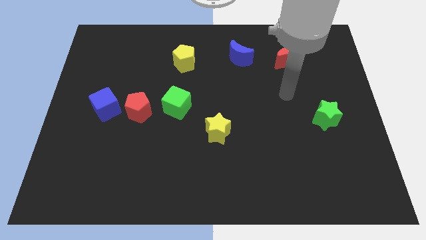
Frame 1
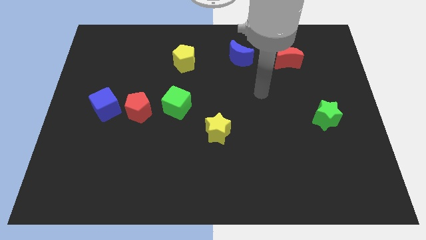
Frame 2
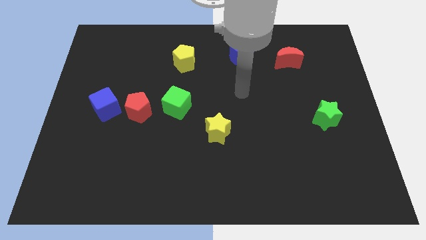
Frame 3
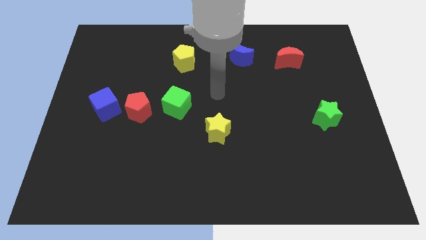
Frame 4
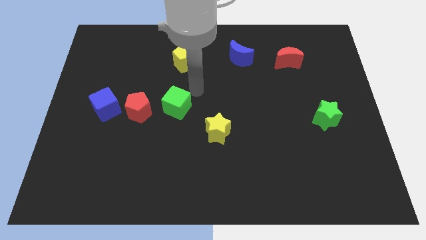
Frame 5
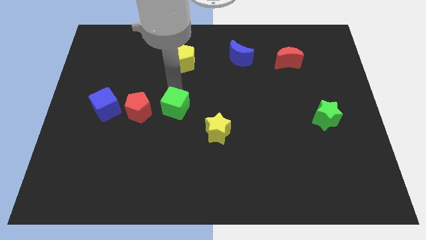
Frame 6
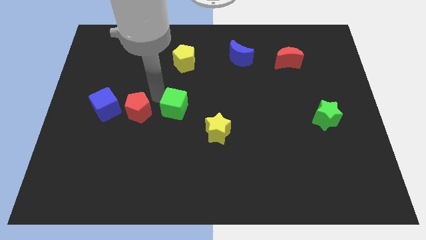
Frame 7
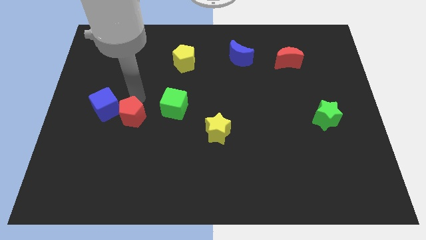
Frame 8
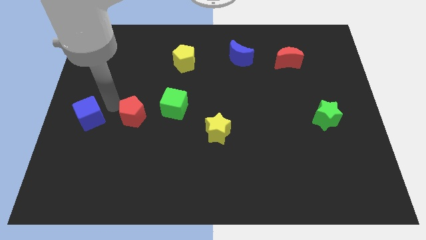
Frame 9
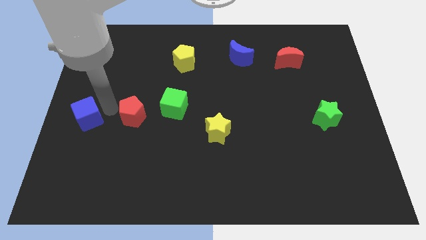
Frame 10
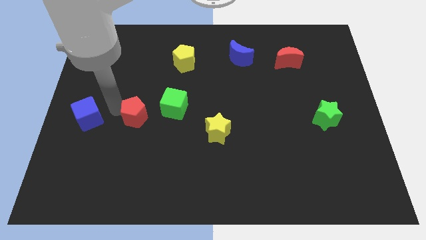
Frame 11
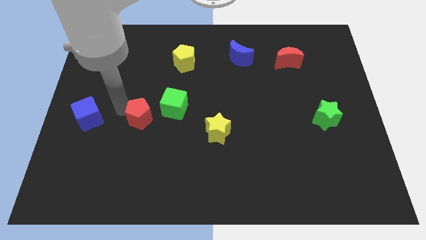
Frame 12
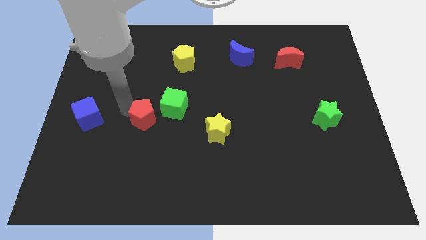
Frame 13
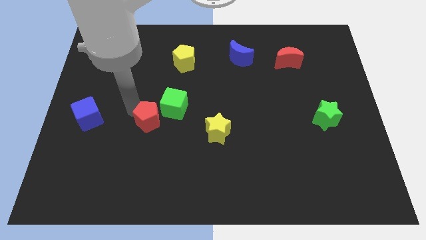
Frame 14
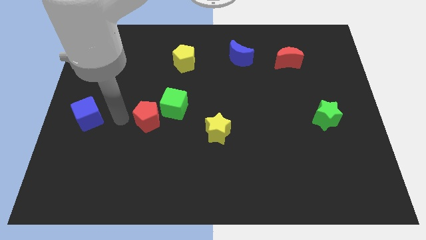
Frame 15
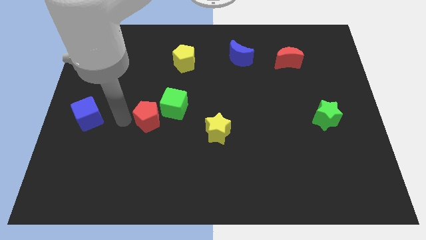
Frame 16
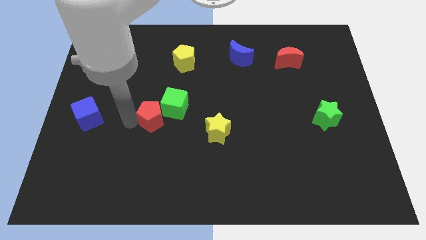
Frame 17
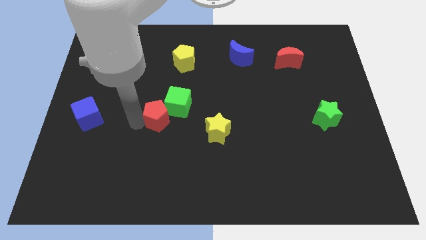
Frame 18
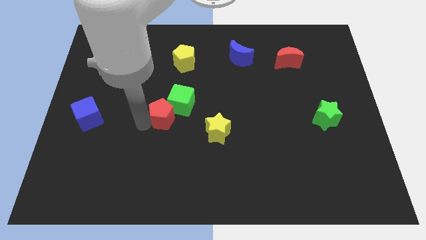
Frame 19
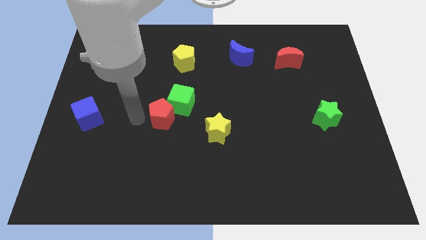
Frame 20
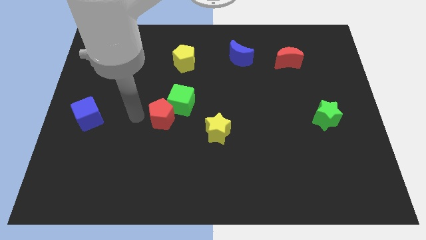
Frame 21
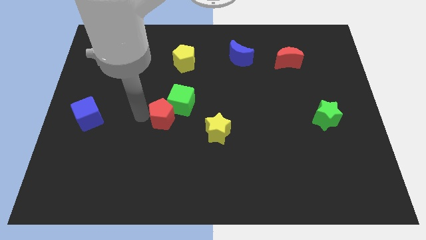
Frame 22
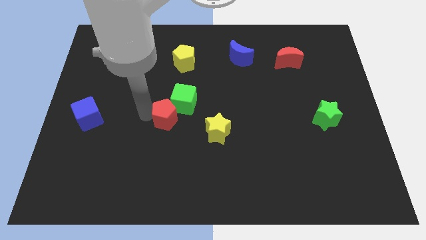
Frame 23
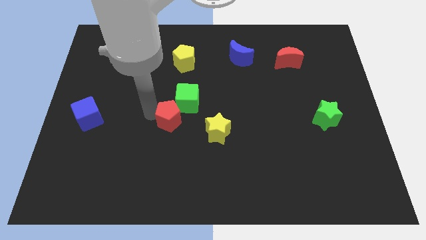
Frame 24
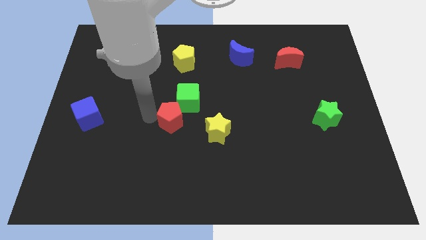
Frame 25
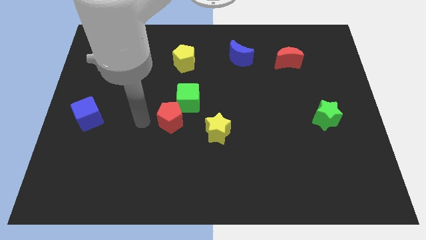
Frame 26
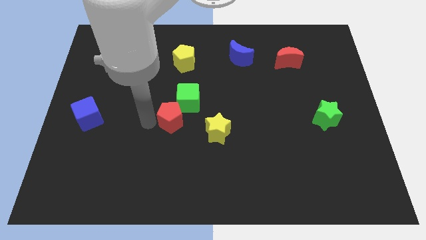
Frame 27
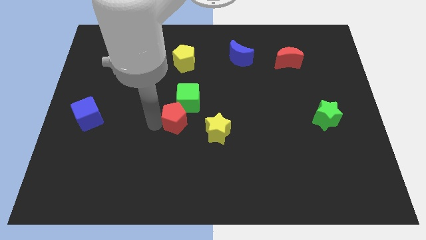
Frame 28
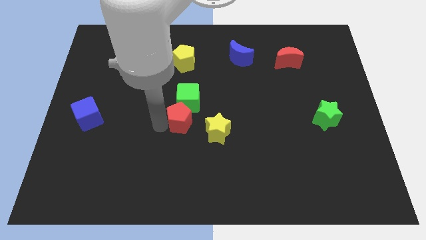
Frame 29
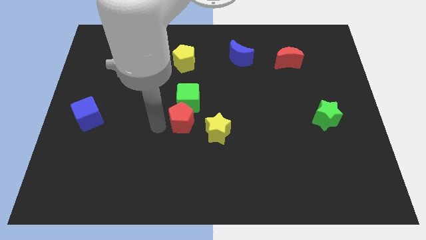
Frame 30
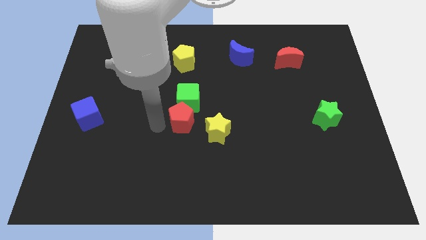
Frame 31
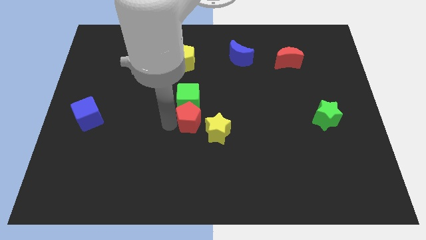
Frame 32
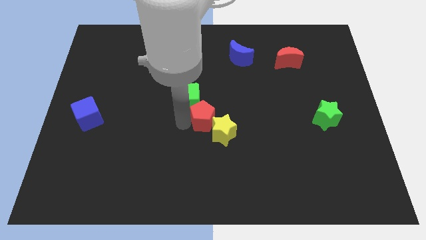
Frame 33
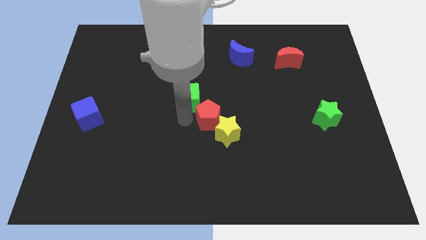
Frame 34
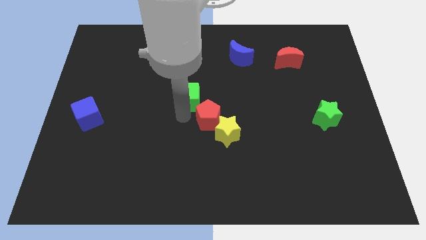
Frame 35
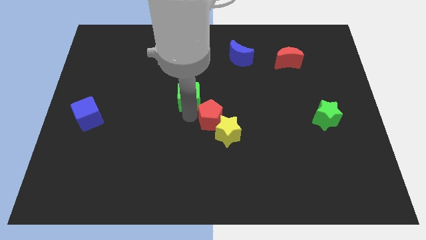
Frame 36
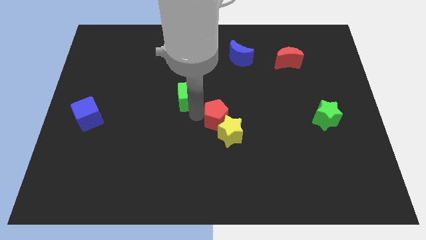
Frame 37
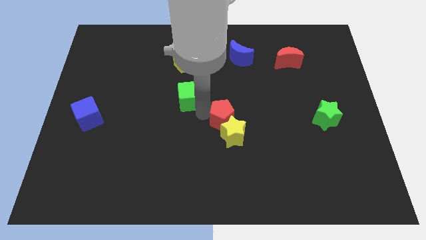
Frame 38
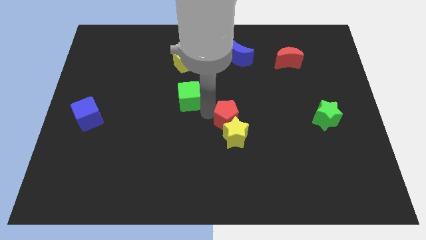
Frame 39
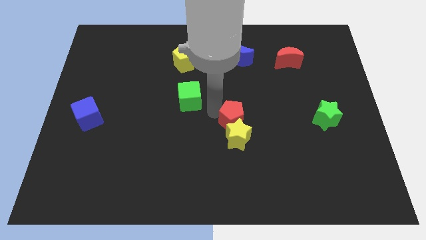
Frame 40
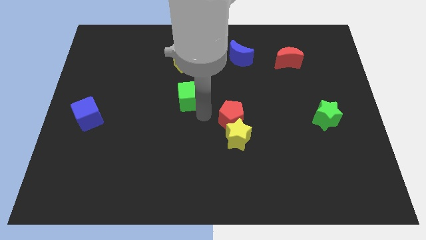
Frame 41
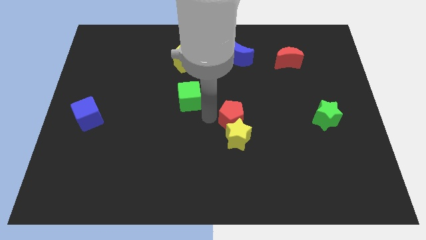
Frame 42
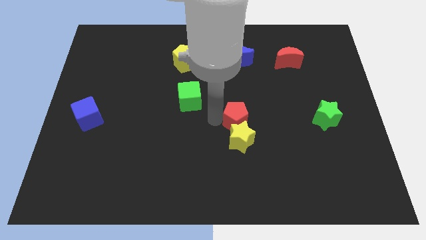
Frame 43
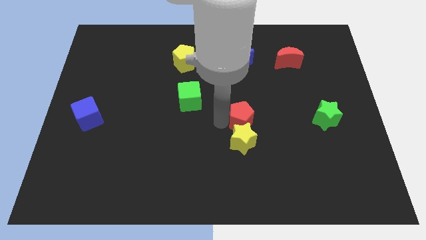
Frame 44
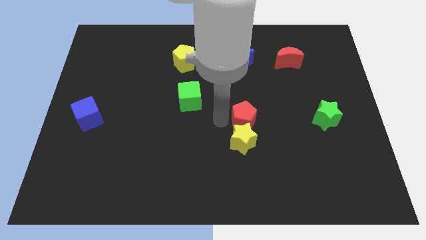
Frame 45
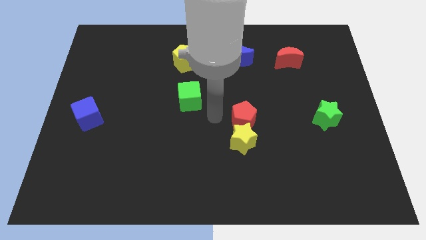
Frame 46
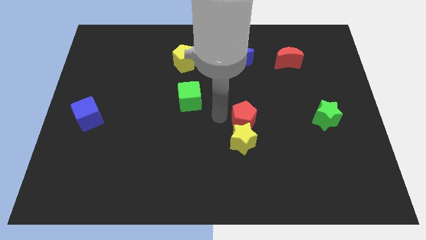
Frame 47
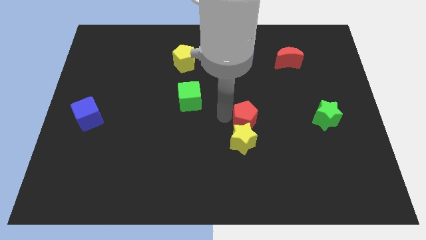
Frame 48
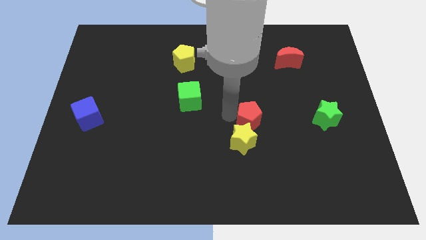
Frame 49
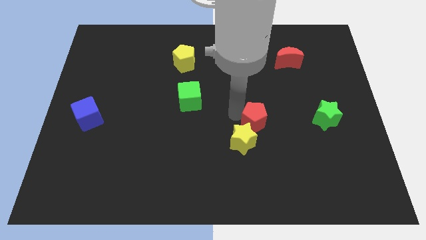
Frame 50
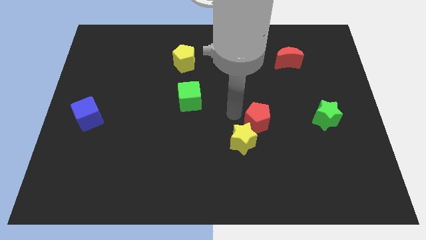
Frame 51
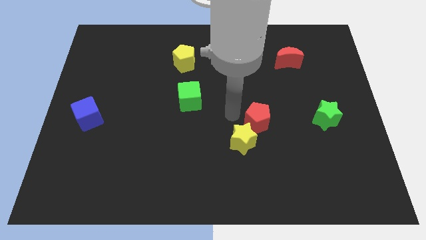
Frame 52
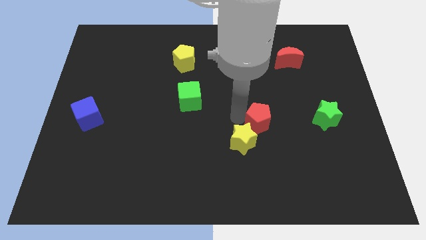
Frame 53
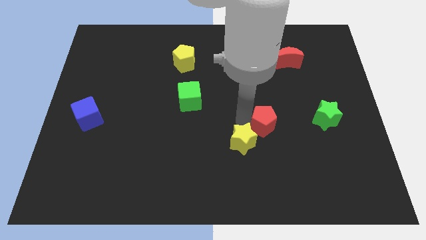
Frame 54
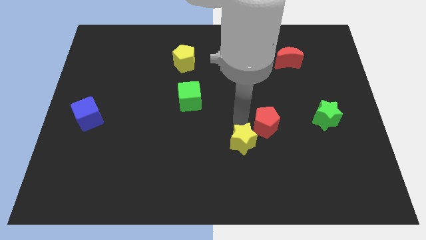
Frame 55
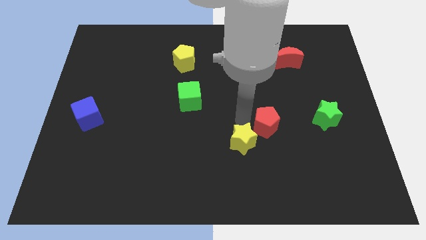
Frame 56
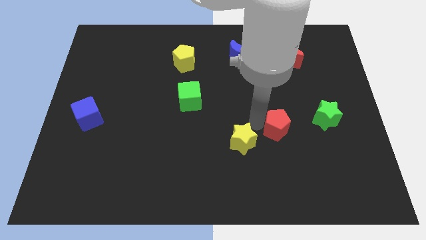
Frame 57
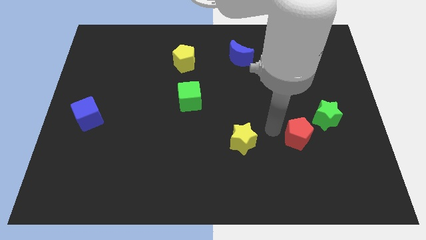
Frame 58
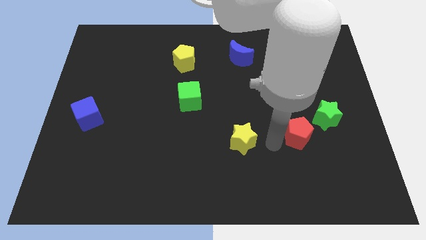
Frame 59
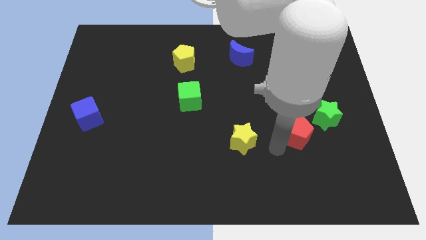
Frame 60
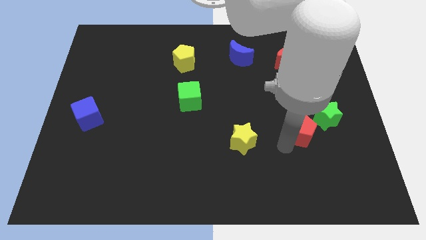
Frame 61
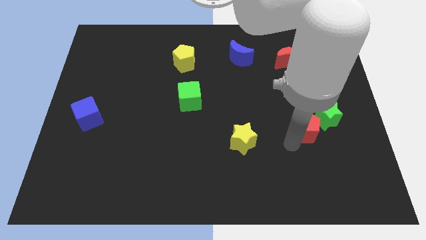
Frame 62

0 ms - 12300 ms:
put the red pentagon towards the green star

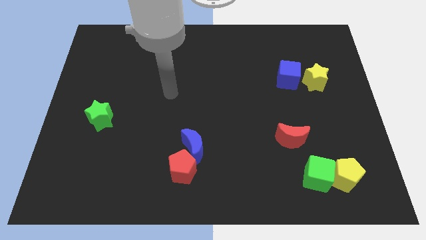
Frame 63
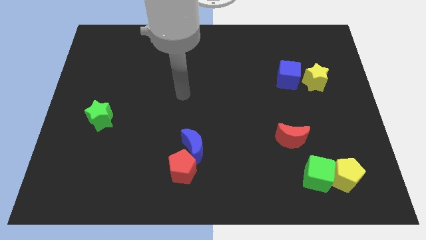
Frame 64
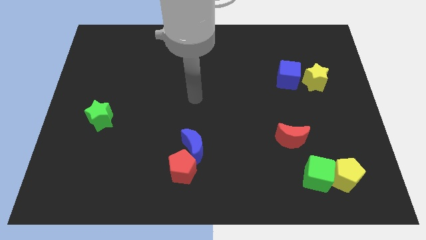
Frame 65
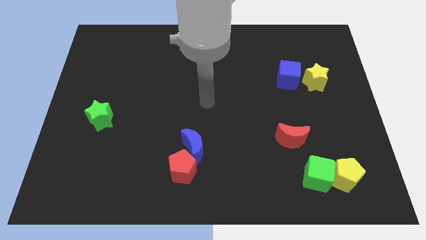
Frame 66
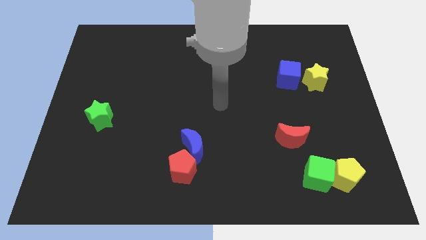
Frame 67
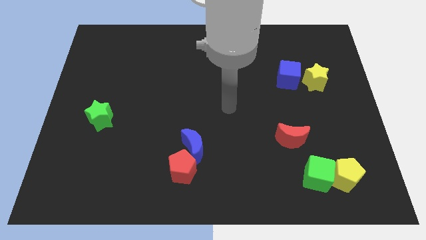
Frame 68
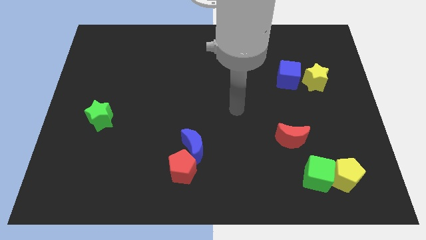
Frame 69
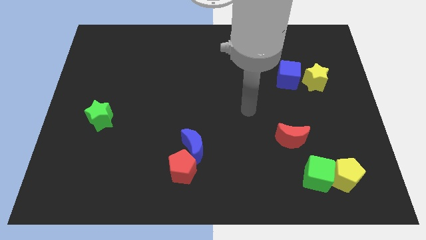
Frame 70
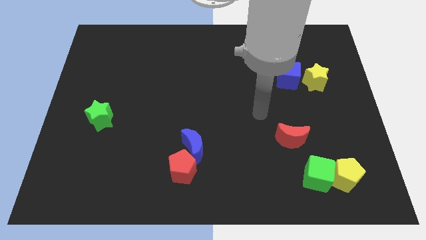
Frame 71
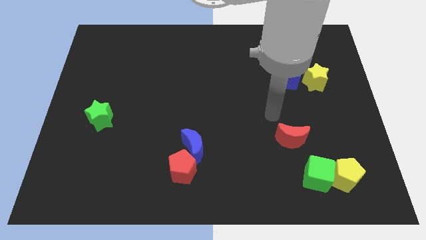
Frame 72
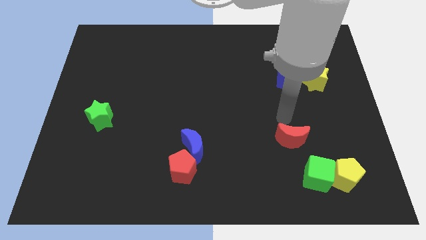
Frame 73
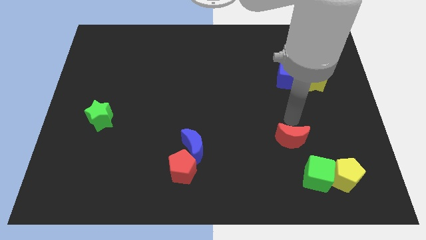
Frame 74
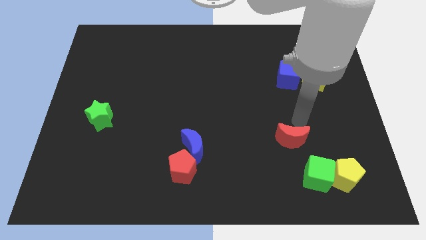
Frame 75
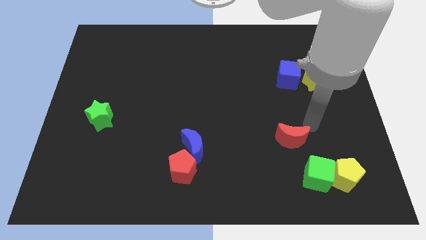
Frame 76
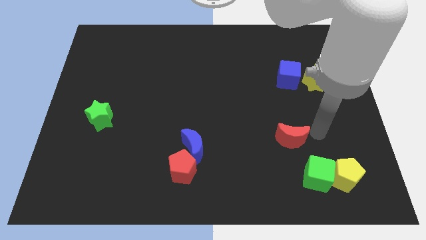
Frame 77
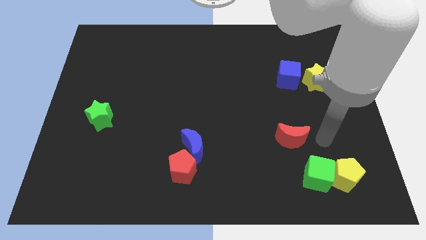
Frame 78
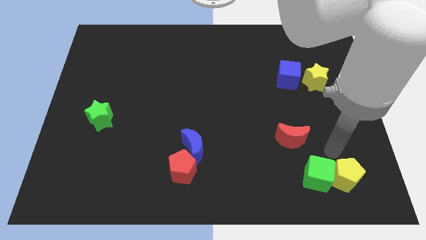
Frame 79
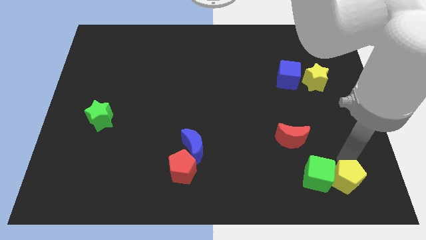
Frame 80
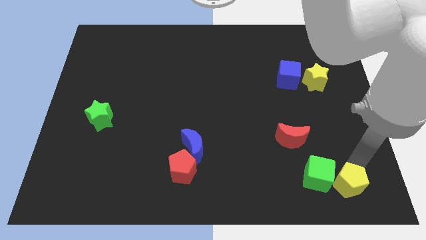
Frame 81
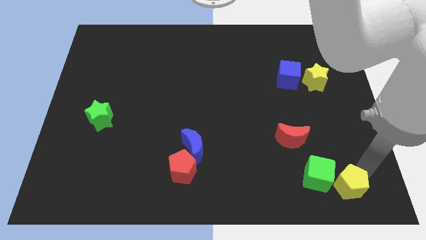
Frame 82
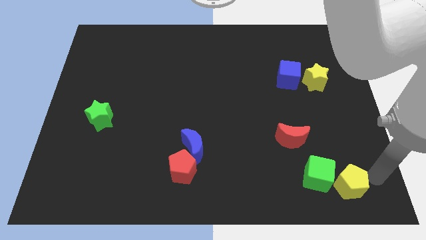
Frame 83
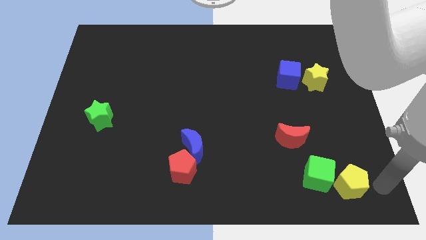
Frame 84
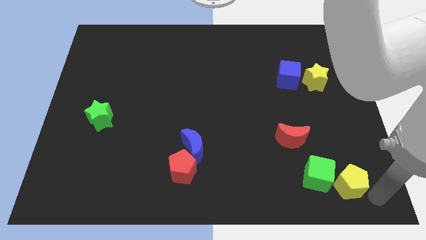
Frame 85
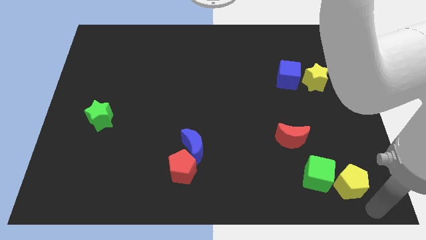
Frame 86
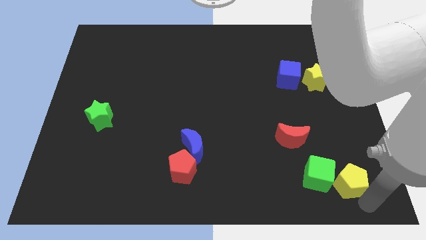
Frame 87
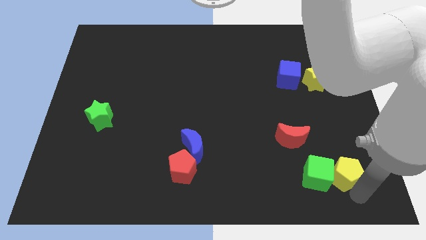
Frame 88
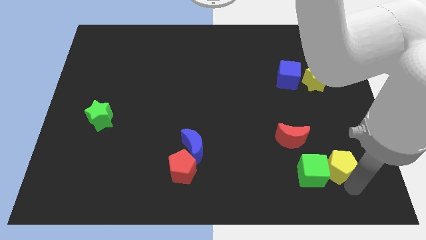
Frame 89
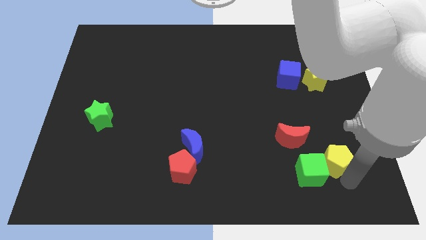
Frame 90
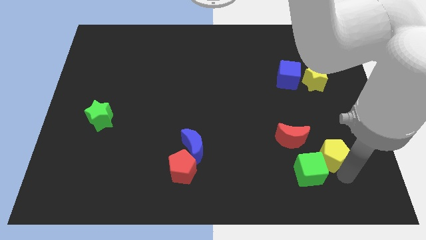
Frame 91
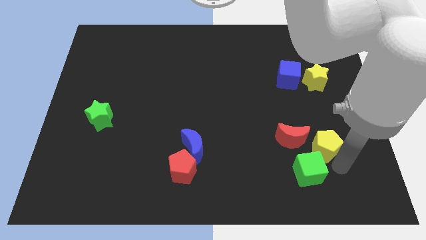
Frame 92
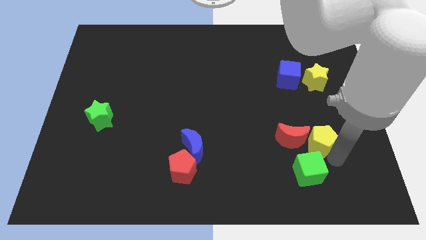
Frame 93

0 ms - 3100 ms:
put the yellow pentagon next to the red moon
